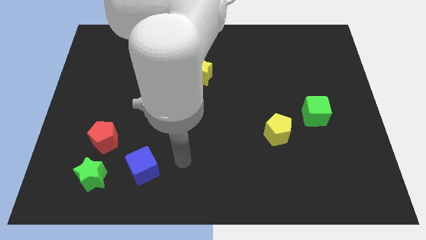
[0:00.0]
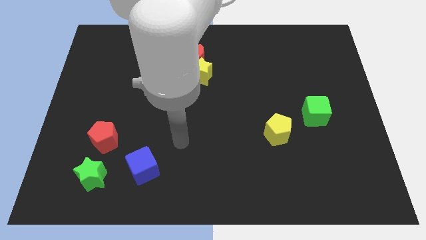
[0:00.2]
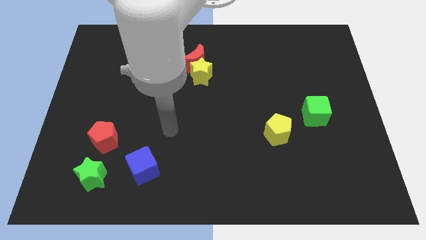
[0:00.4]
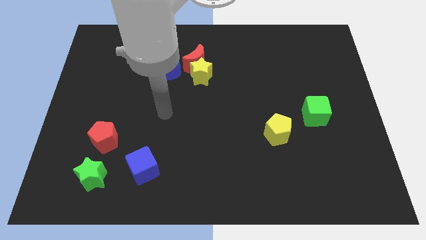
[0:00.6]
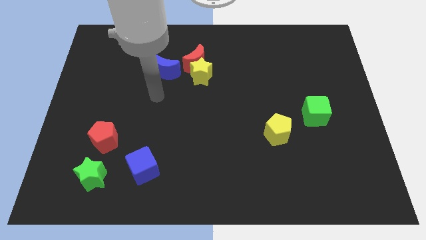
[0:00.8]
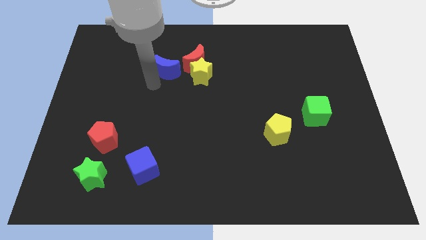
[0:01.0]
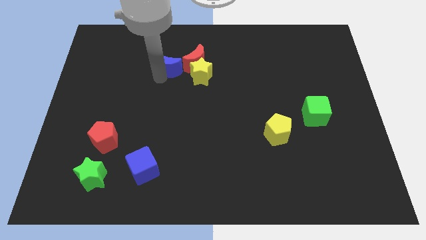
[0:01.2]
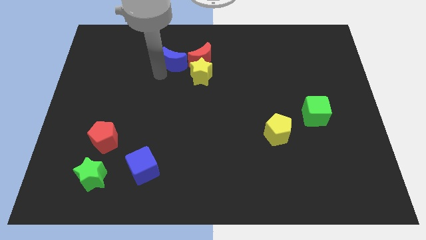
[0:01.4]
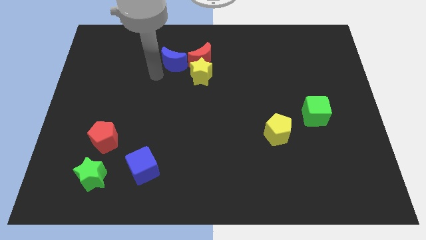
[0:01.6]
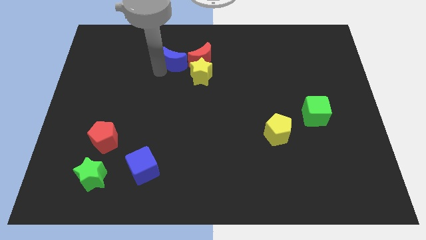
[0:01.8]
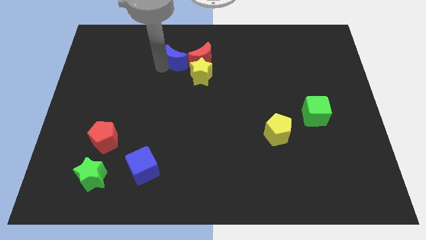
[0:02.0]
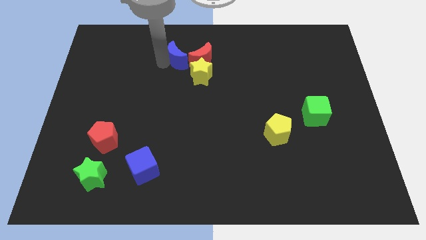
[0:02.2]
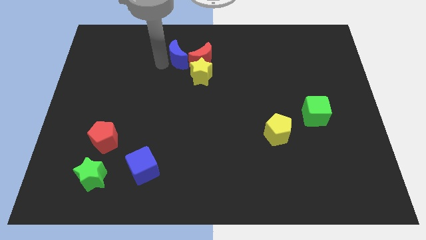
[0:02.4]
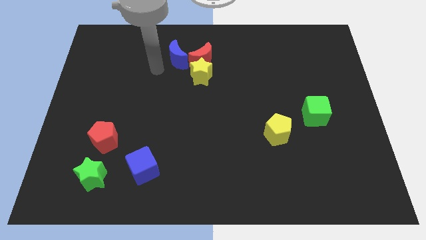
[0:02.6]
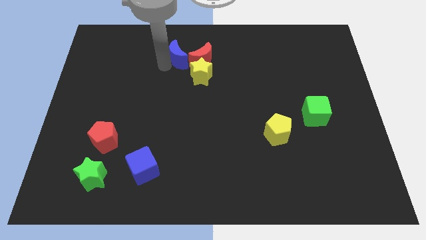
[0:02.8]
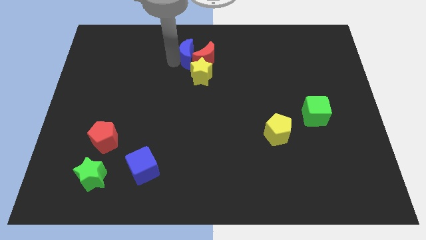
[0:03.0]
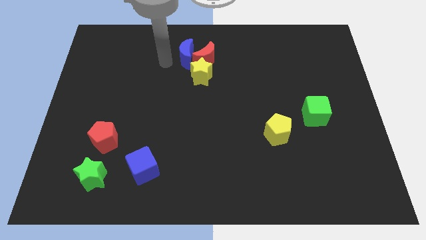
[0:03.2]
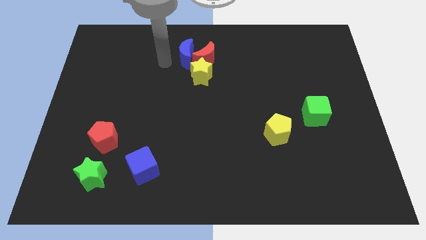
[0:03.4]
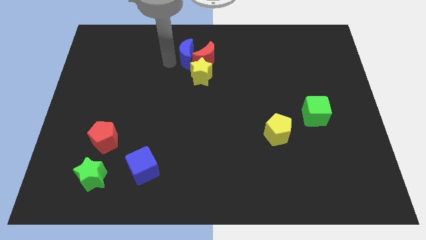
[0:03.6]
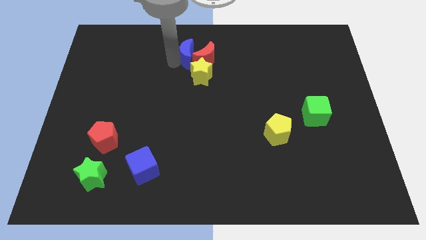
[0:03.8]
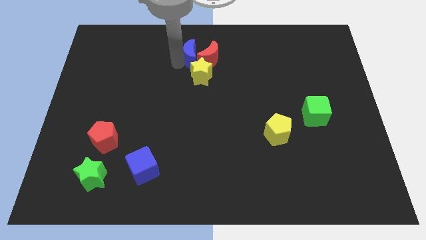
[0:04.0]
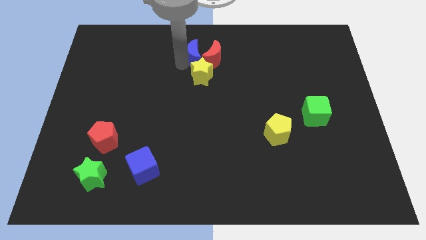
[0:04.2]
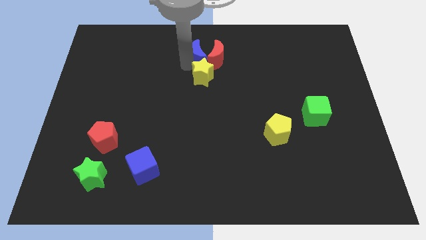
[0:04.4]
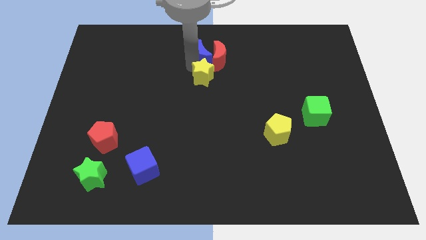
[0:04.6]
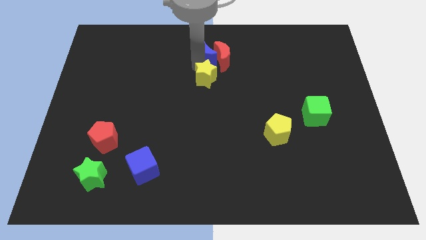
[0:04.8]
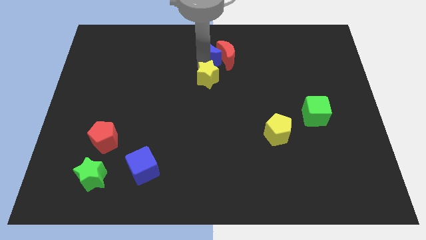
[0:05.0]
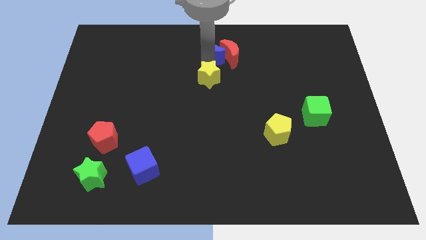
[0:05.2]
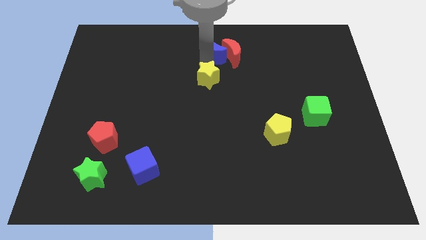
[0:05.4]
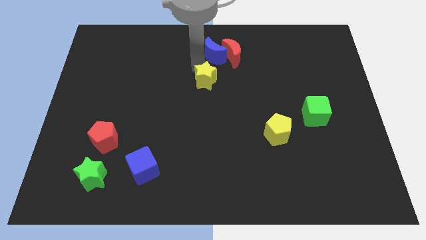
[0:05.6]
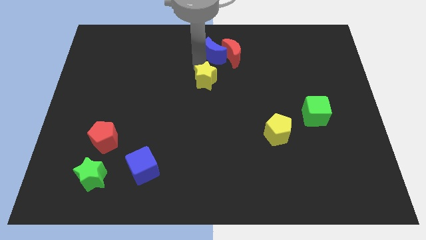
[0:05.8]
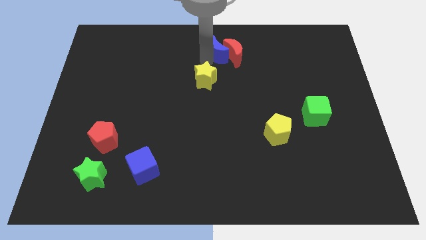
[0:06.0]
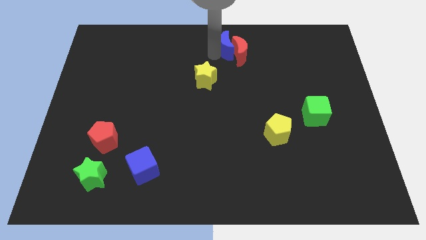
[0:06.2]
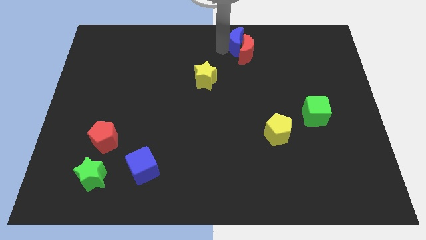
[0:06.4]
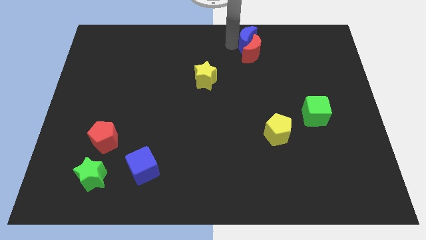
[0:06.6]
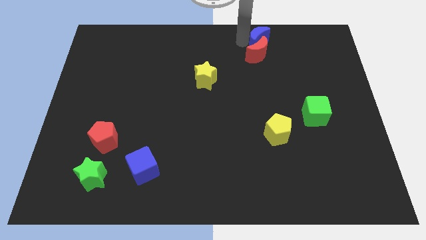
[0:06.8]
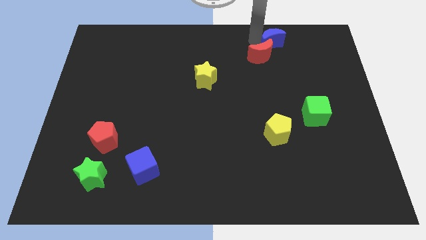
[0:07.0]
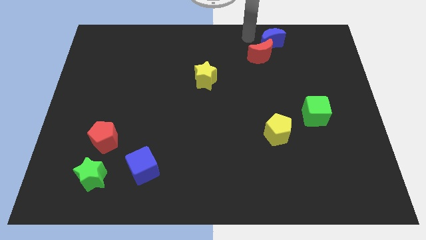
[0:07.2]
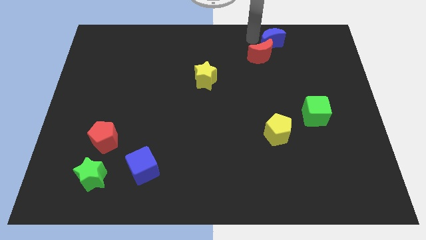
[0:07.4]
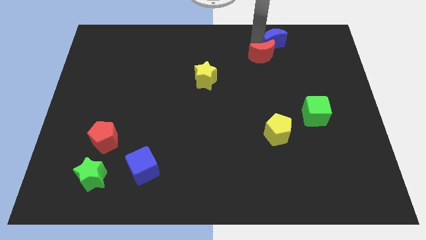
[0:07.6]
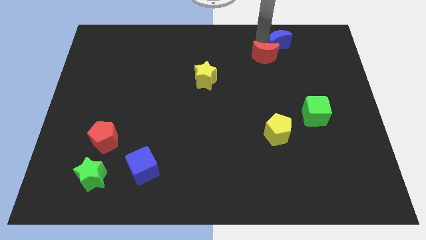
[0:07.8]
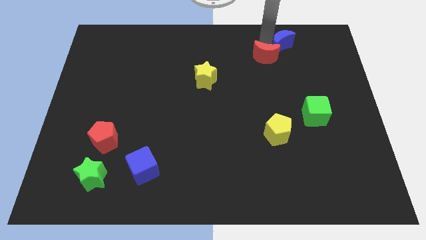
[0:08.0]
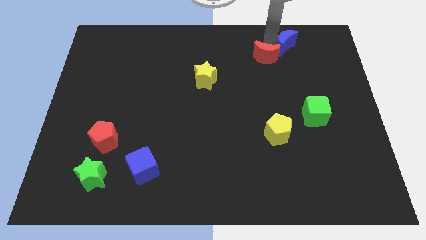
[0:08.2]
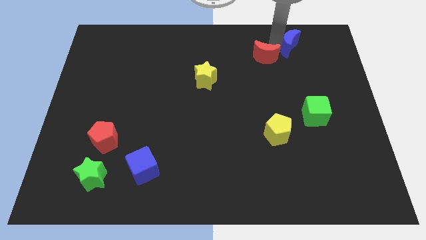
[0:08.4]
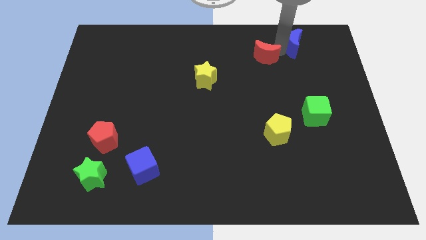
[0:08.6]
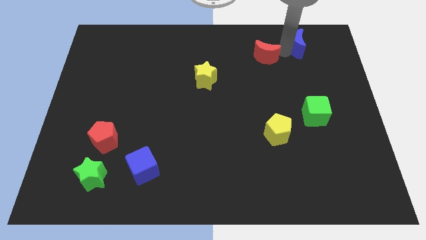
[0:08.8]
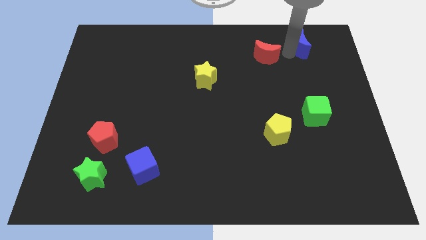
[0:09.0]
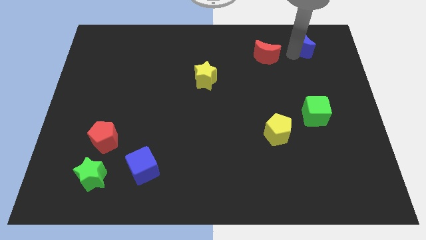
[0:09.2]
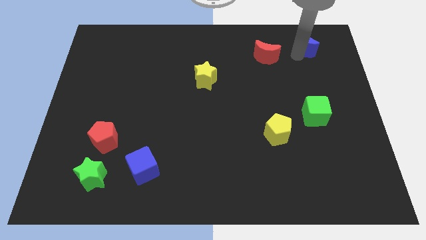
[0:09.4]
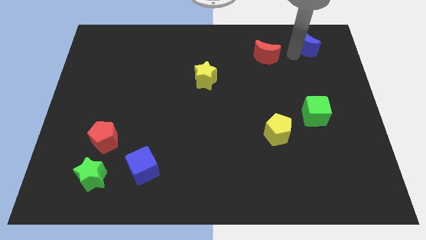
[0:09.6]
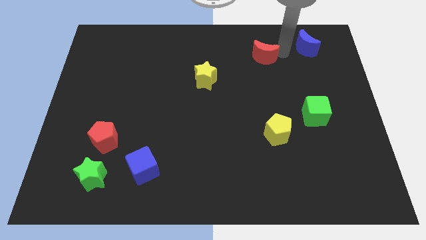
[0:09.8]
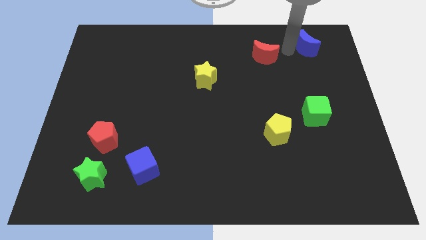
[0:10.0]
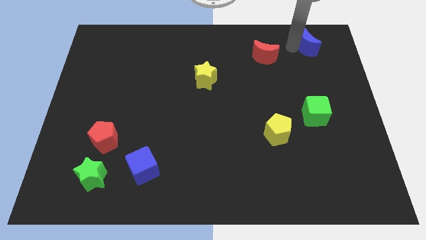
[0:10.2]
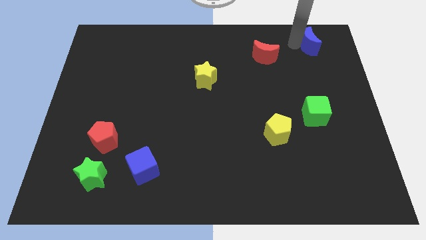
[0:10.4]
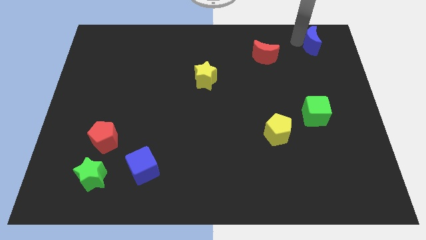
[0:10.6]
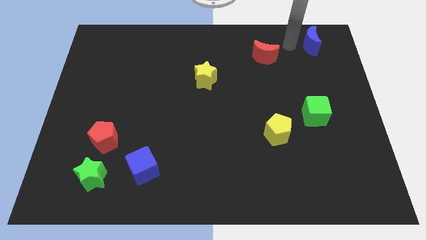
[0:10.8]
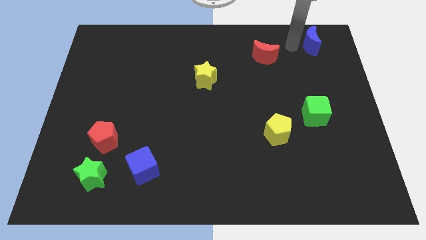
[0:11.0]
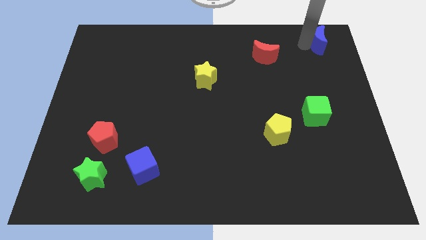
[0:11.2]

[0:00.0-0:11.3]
slide the blue moon to the top right of the board

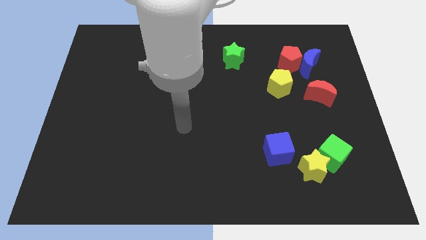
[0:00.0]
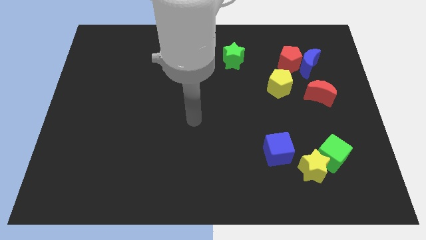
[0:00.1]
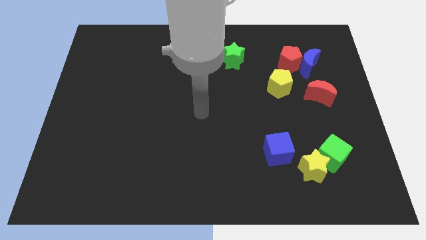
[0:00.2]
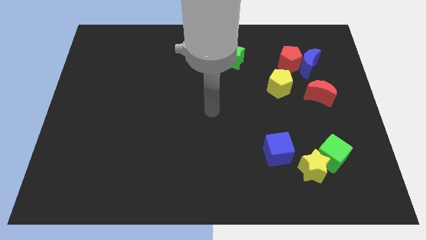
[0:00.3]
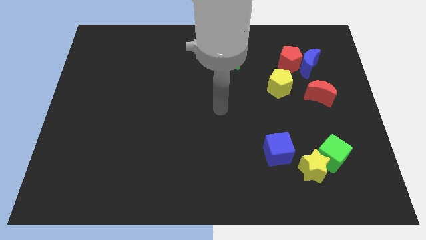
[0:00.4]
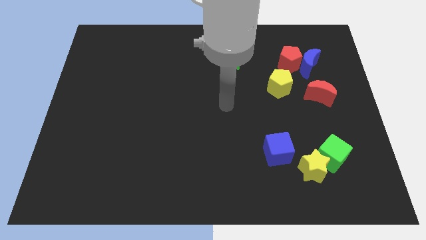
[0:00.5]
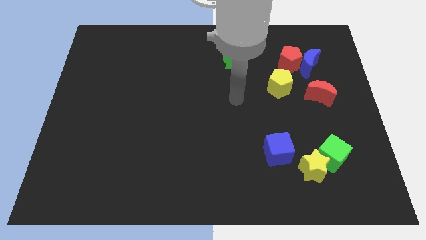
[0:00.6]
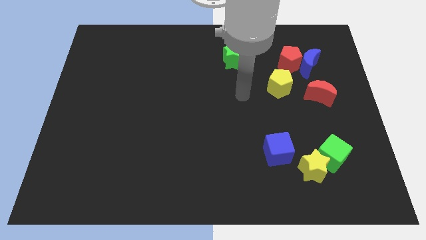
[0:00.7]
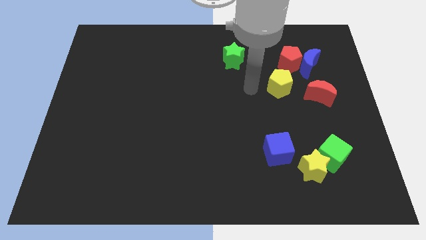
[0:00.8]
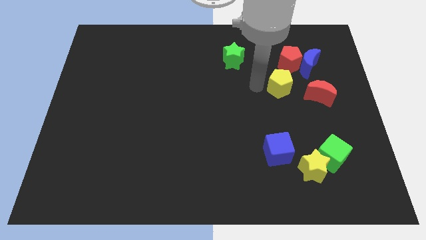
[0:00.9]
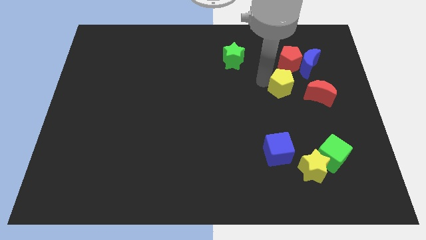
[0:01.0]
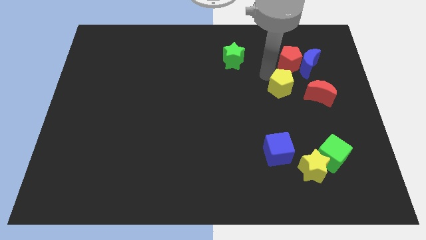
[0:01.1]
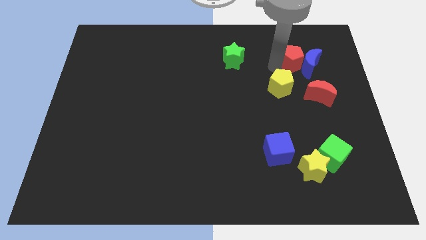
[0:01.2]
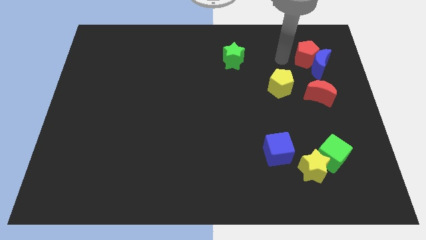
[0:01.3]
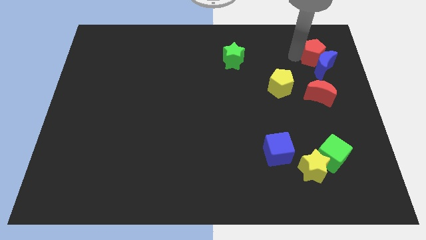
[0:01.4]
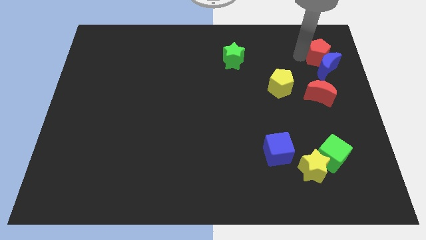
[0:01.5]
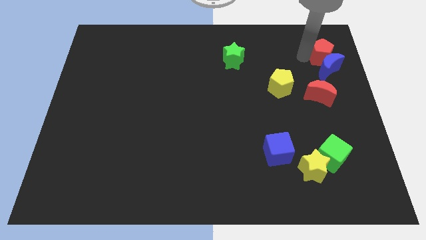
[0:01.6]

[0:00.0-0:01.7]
put the blue moon to the right side of the board
